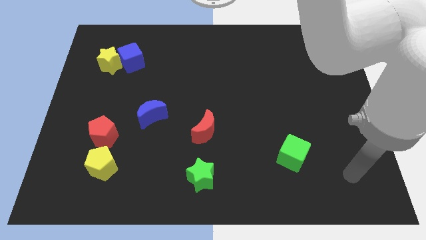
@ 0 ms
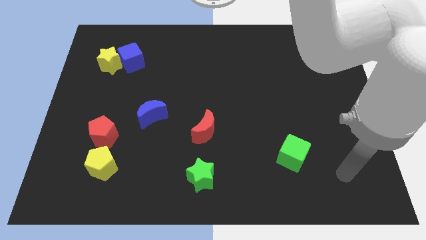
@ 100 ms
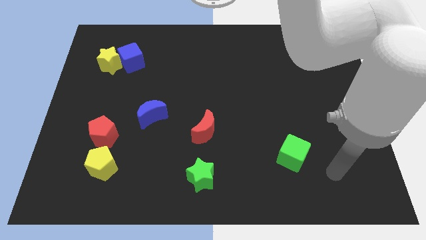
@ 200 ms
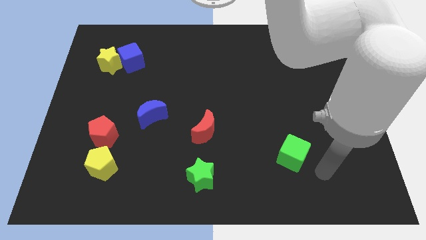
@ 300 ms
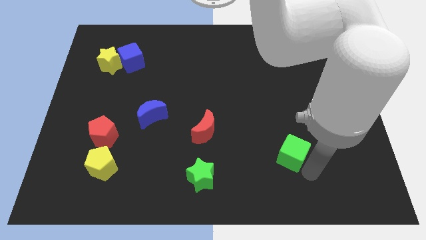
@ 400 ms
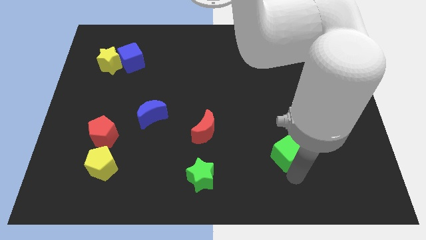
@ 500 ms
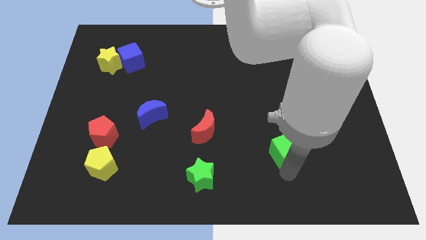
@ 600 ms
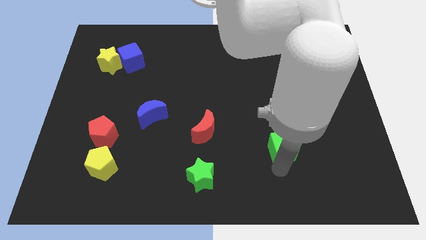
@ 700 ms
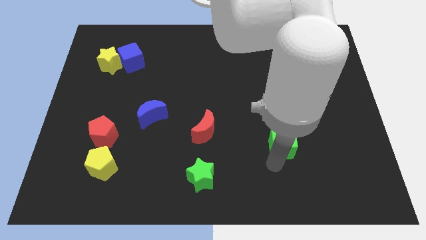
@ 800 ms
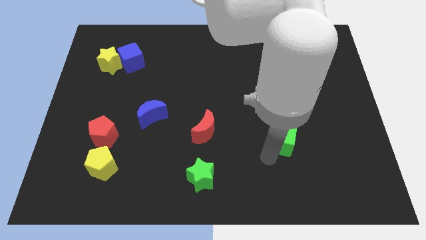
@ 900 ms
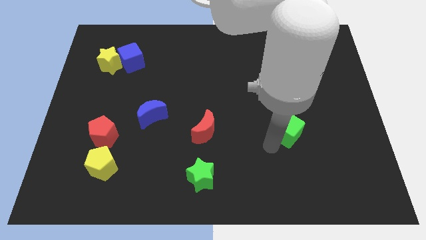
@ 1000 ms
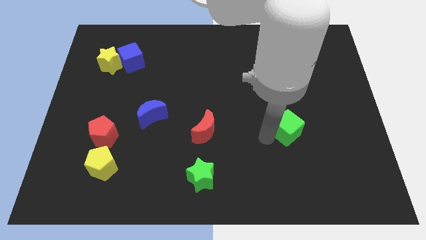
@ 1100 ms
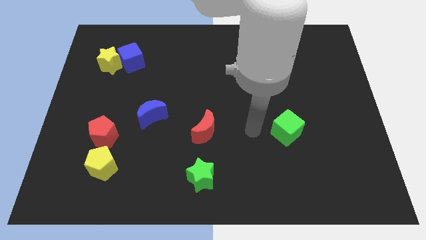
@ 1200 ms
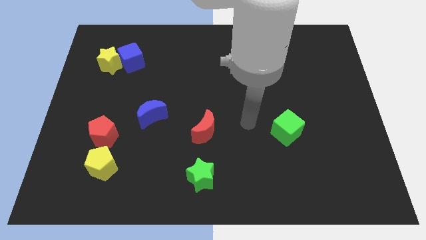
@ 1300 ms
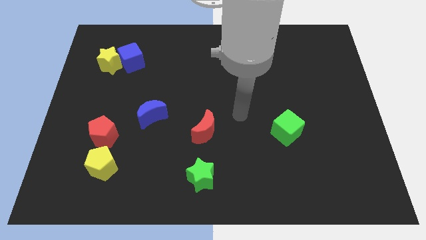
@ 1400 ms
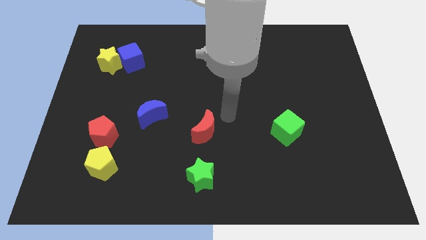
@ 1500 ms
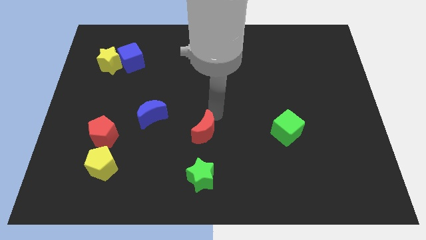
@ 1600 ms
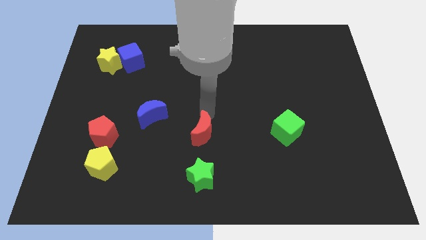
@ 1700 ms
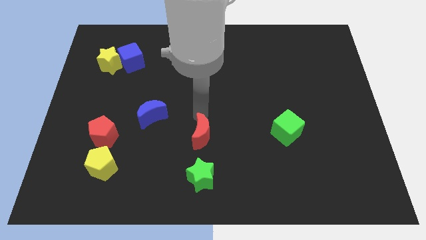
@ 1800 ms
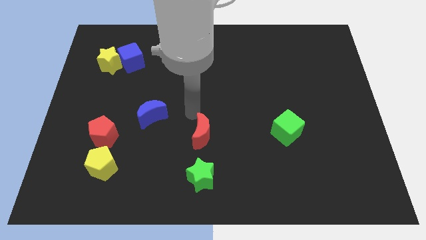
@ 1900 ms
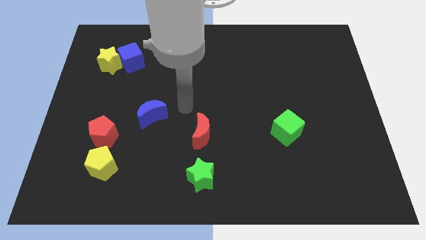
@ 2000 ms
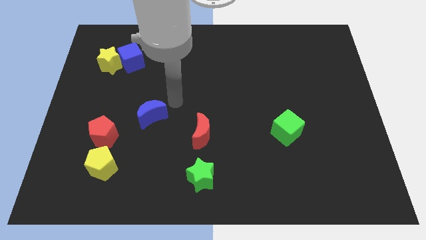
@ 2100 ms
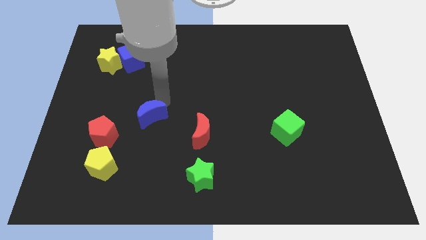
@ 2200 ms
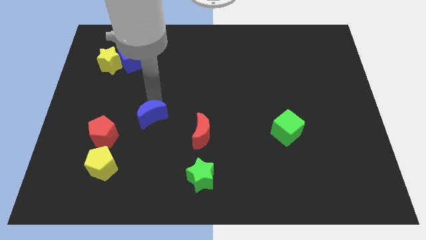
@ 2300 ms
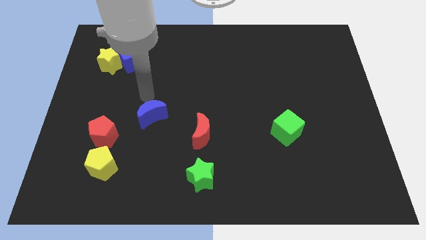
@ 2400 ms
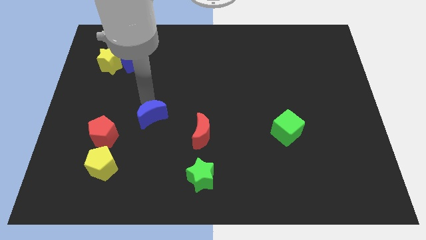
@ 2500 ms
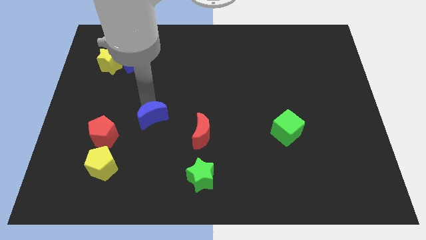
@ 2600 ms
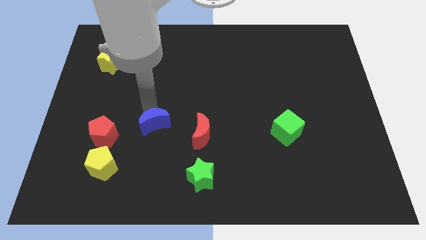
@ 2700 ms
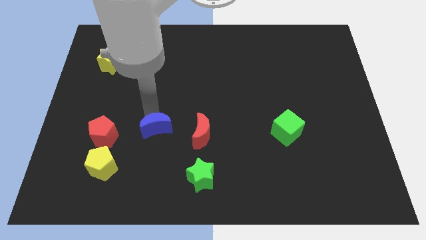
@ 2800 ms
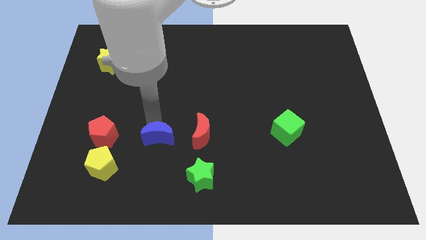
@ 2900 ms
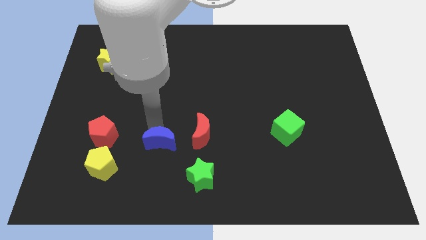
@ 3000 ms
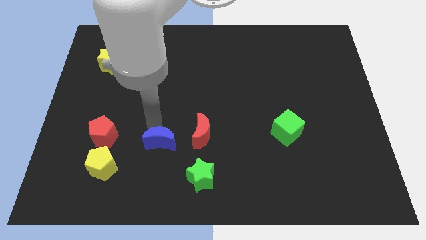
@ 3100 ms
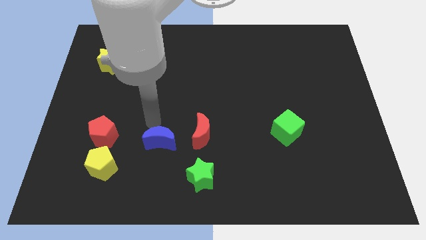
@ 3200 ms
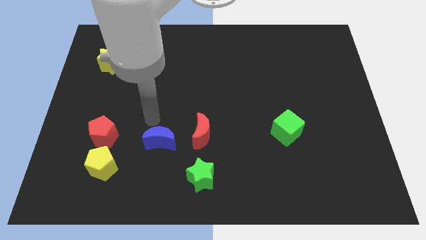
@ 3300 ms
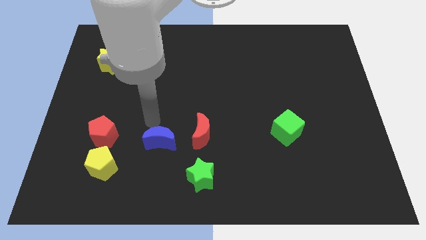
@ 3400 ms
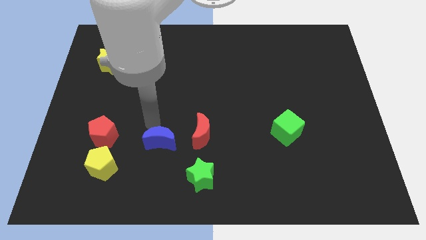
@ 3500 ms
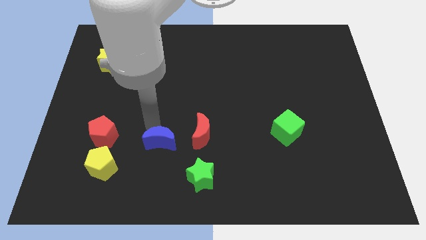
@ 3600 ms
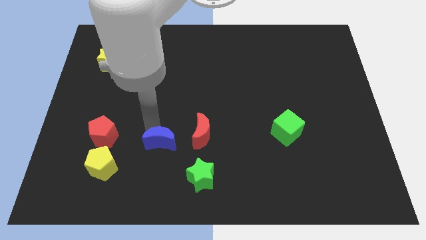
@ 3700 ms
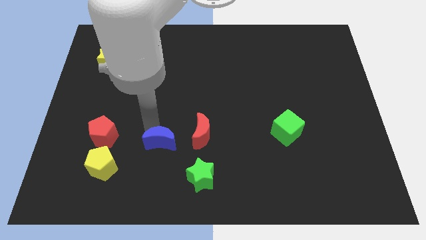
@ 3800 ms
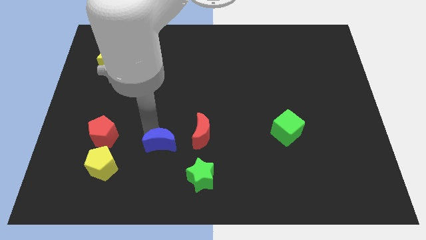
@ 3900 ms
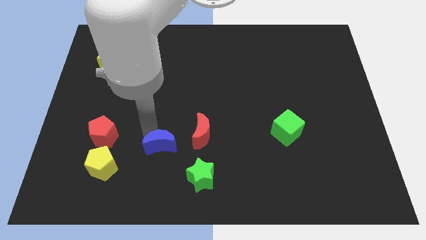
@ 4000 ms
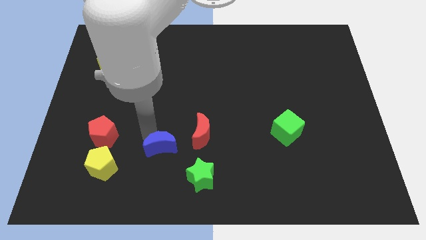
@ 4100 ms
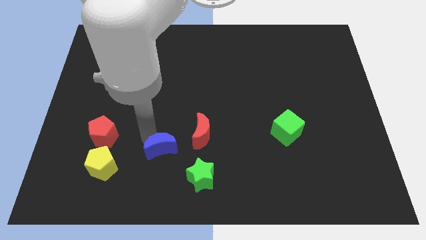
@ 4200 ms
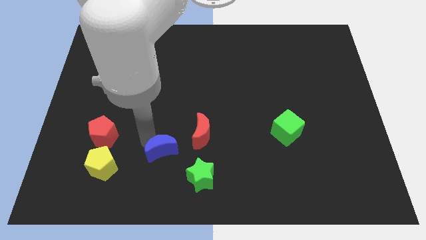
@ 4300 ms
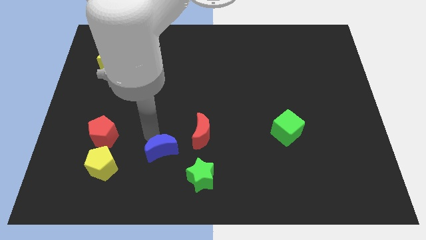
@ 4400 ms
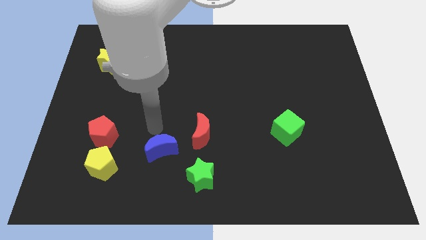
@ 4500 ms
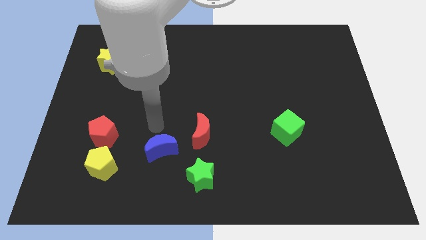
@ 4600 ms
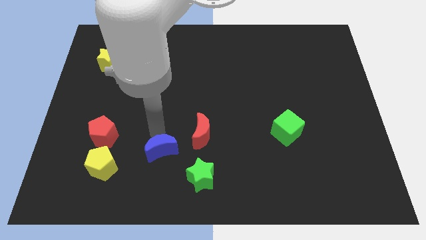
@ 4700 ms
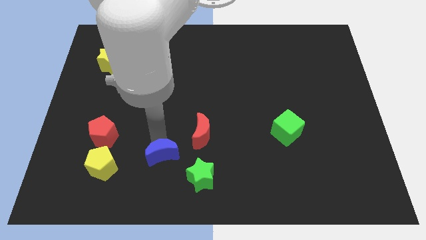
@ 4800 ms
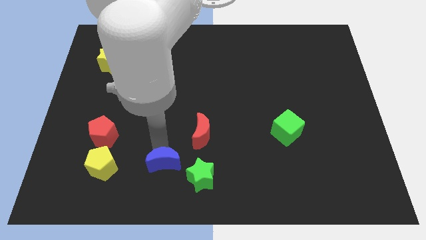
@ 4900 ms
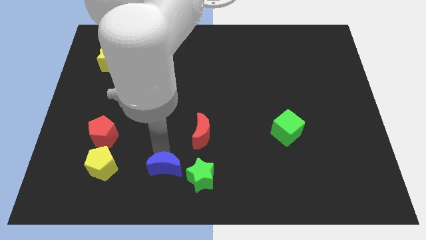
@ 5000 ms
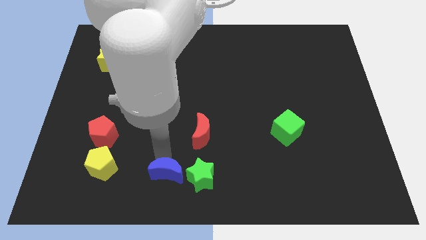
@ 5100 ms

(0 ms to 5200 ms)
push the blue moon to the bottom

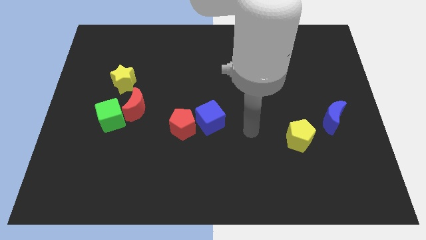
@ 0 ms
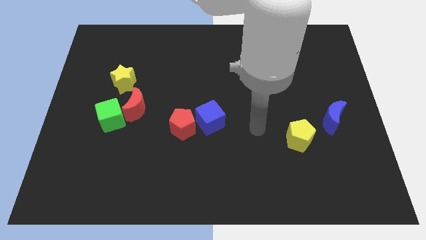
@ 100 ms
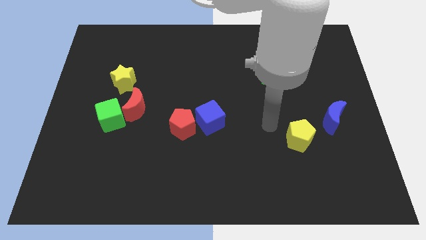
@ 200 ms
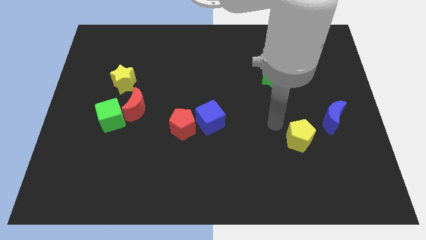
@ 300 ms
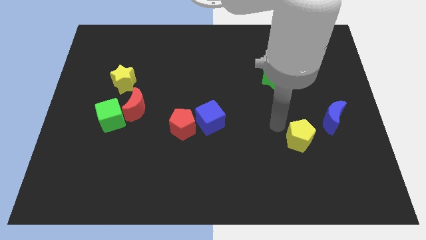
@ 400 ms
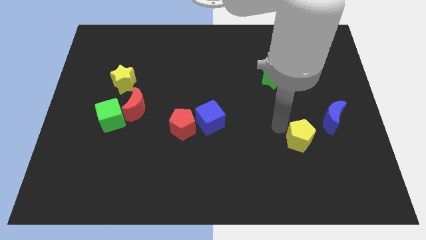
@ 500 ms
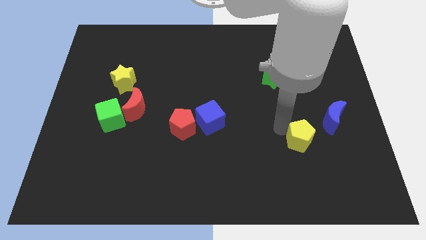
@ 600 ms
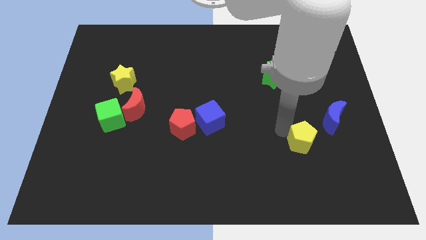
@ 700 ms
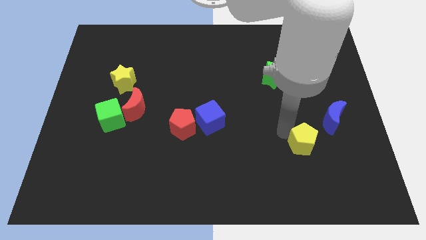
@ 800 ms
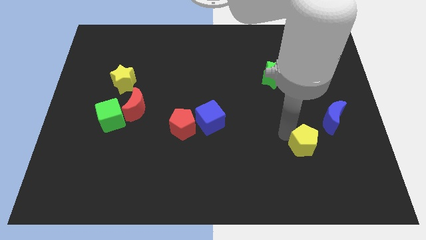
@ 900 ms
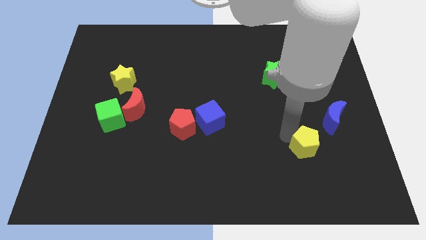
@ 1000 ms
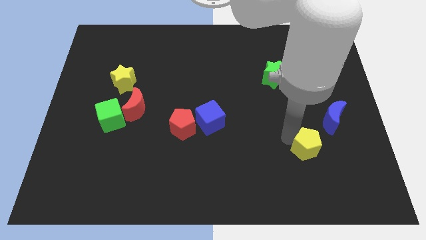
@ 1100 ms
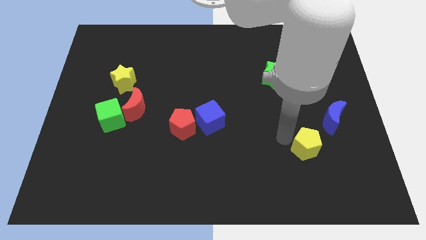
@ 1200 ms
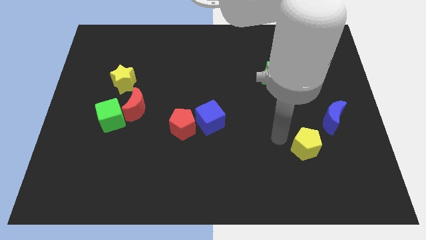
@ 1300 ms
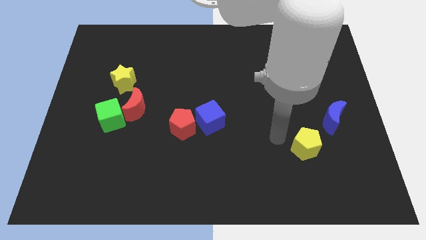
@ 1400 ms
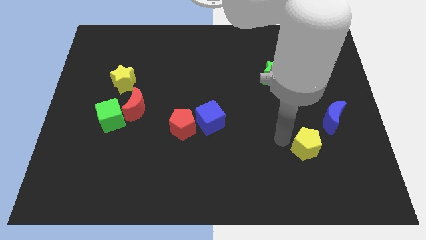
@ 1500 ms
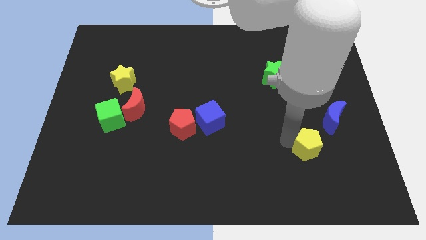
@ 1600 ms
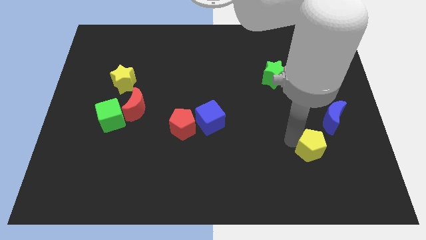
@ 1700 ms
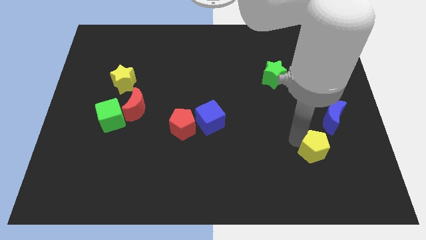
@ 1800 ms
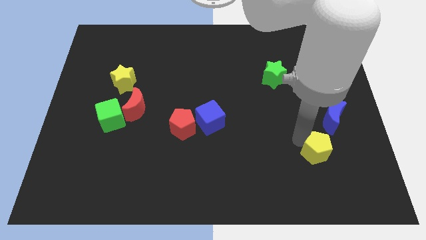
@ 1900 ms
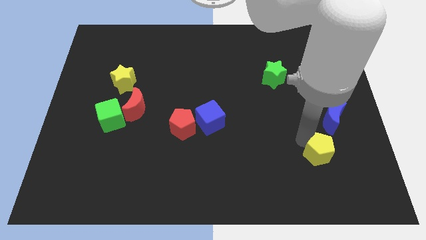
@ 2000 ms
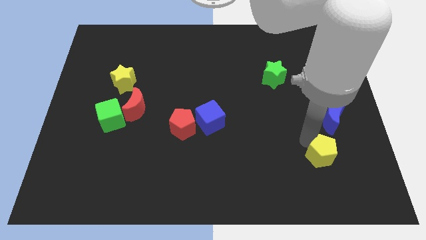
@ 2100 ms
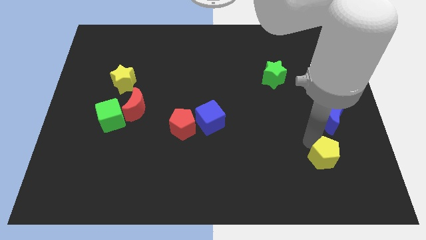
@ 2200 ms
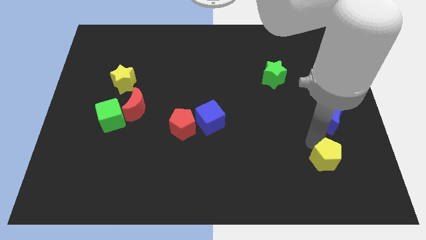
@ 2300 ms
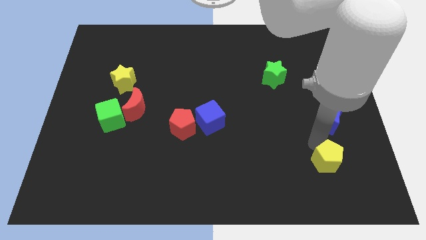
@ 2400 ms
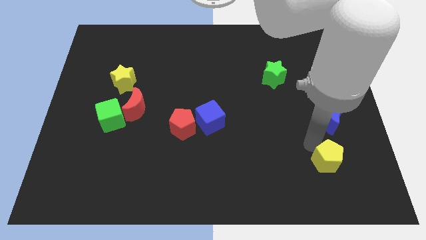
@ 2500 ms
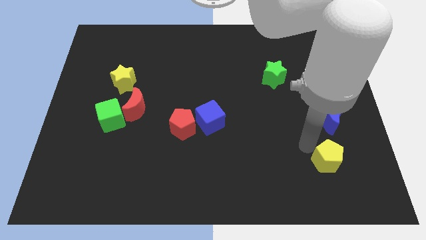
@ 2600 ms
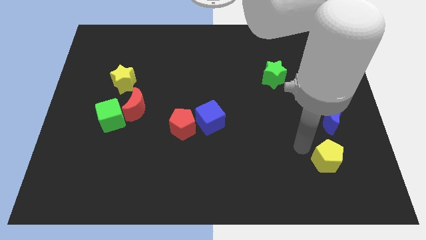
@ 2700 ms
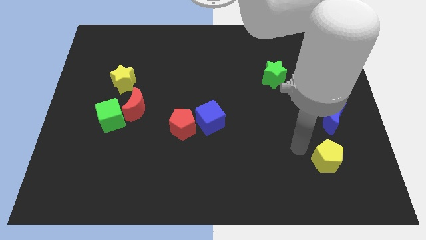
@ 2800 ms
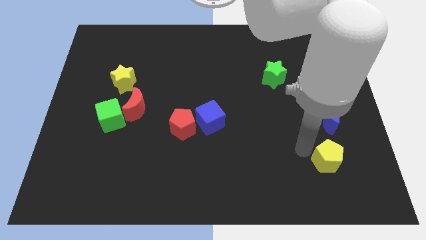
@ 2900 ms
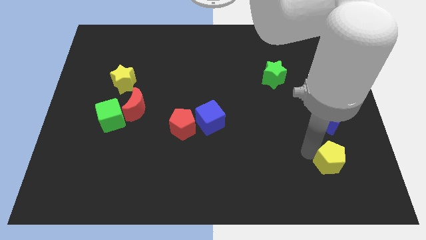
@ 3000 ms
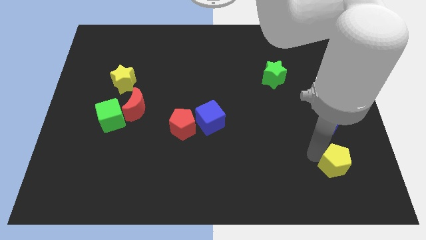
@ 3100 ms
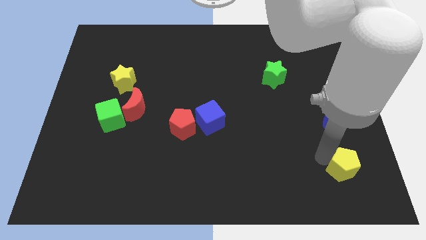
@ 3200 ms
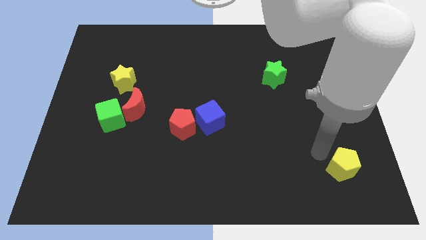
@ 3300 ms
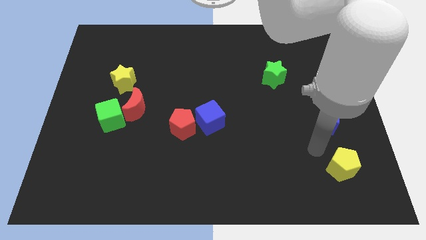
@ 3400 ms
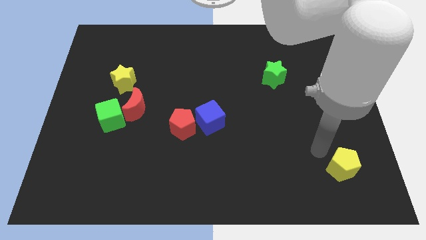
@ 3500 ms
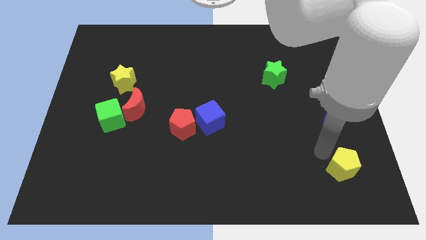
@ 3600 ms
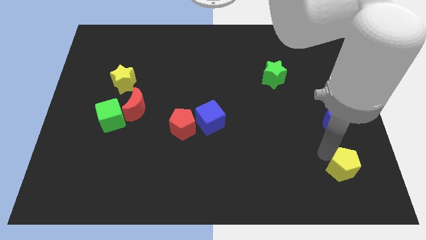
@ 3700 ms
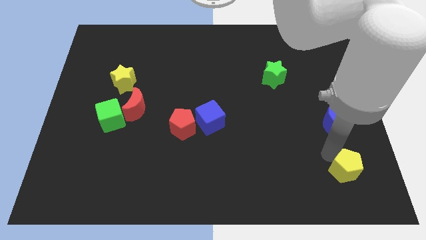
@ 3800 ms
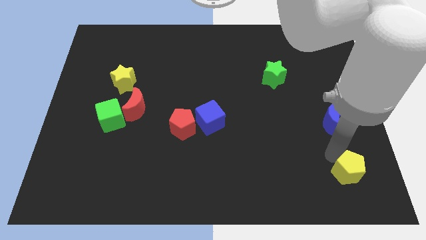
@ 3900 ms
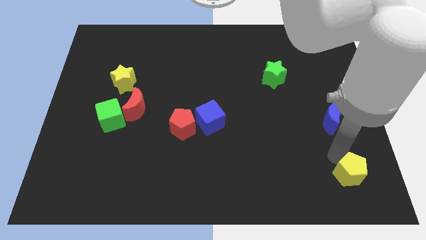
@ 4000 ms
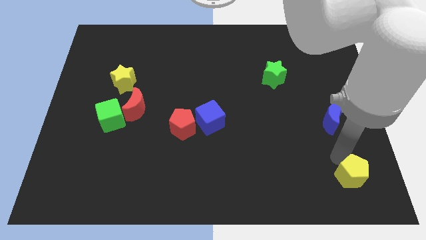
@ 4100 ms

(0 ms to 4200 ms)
move the yellow pentagon to the bottom right
